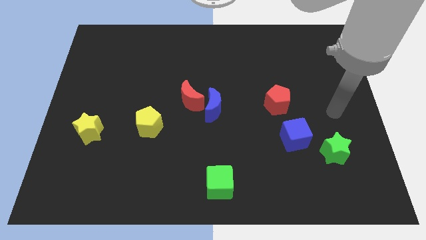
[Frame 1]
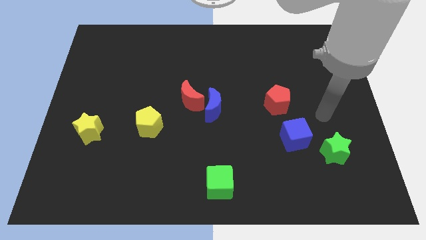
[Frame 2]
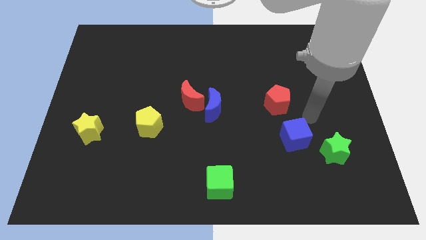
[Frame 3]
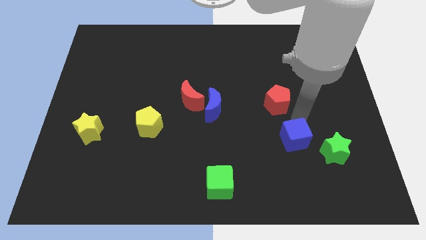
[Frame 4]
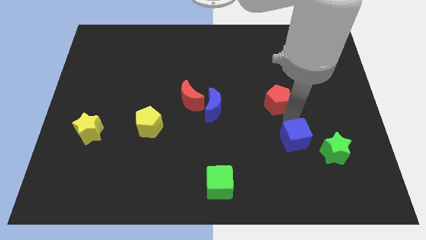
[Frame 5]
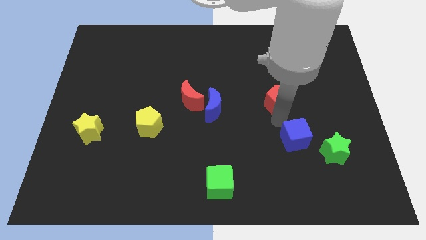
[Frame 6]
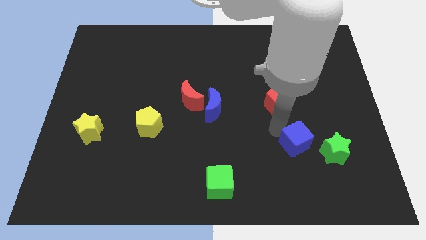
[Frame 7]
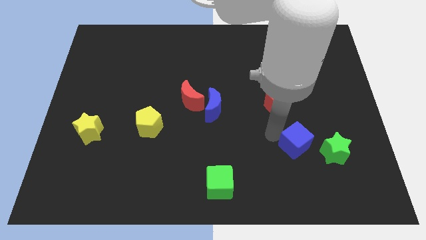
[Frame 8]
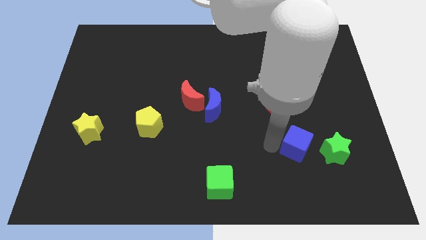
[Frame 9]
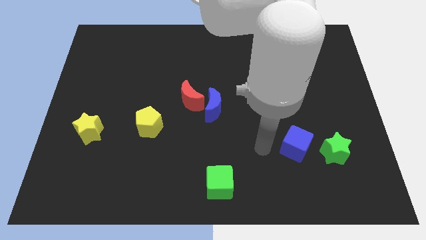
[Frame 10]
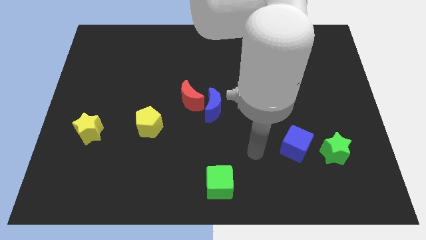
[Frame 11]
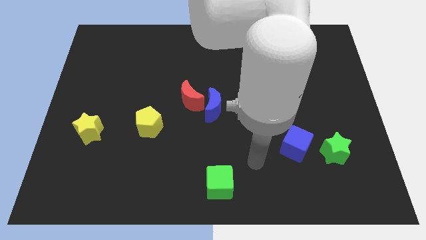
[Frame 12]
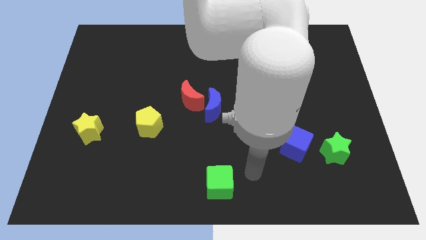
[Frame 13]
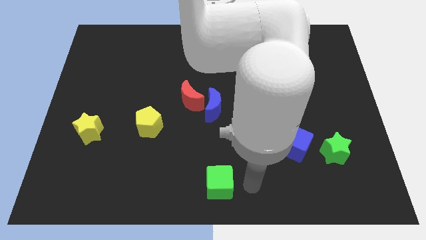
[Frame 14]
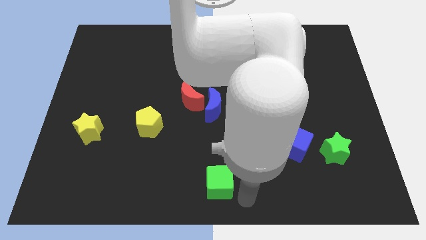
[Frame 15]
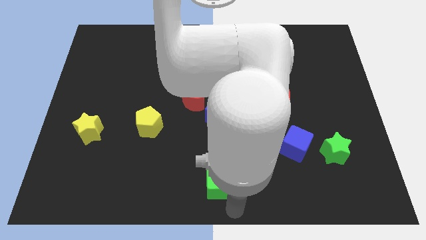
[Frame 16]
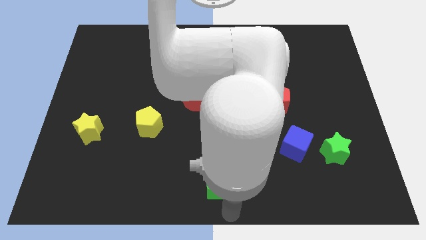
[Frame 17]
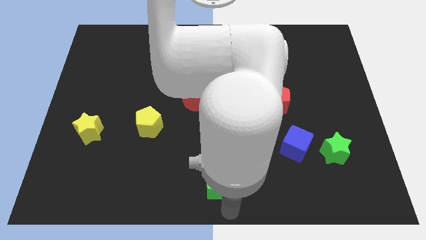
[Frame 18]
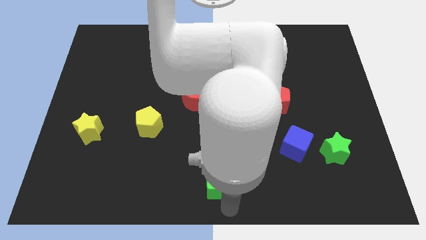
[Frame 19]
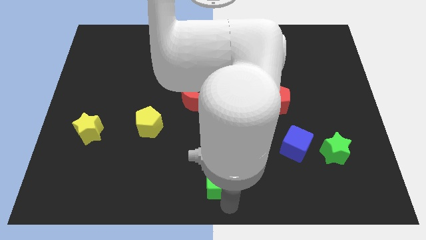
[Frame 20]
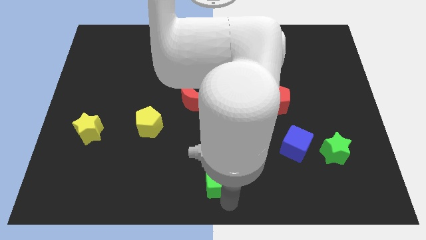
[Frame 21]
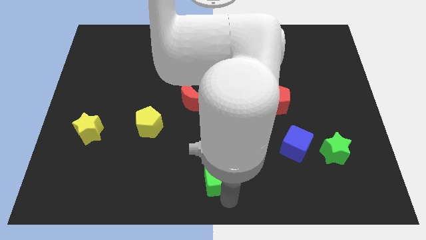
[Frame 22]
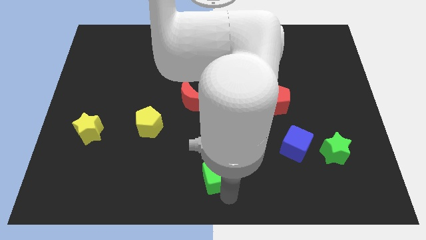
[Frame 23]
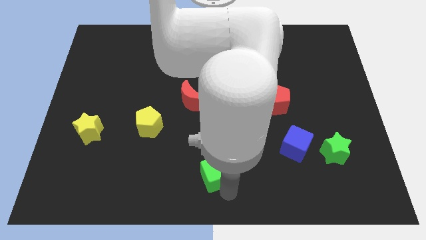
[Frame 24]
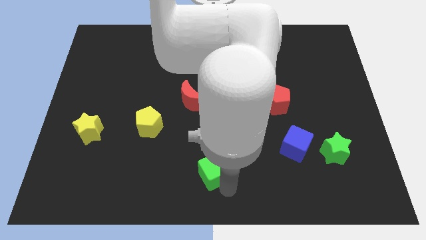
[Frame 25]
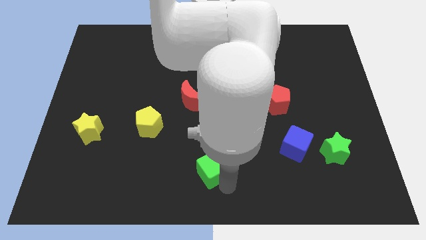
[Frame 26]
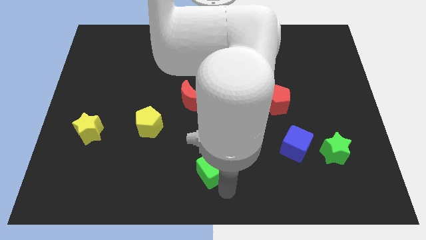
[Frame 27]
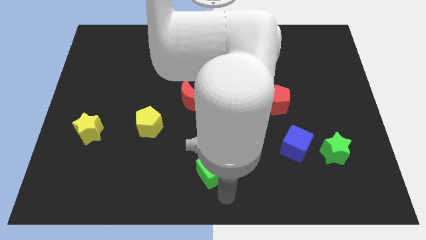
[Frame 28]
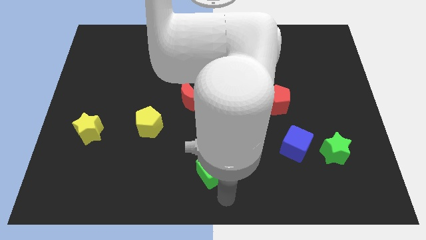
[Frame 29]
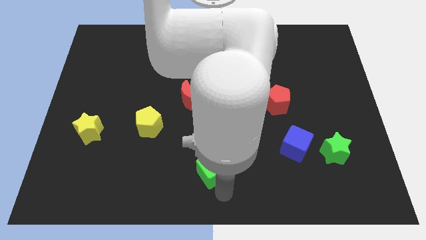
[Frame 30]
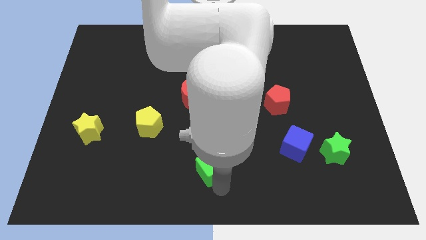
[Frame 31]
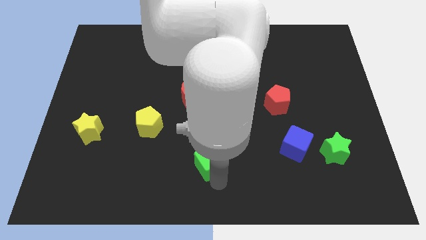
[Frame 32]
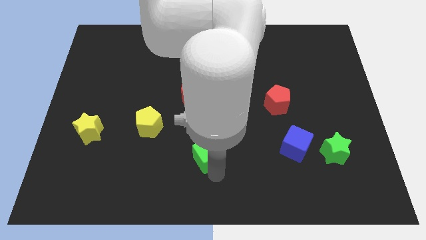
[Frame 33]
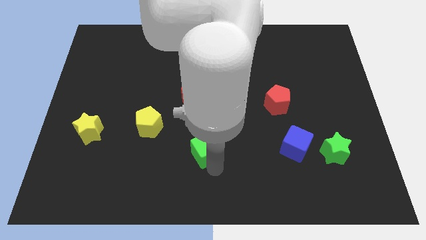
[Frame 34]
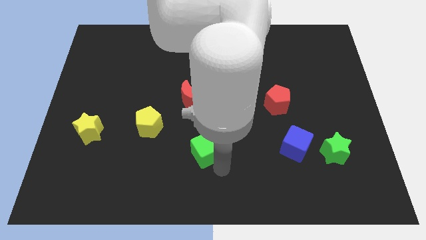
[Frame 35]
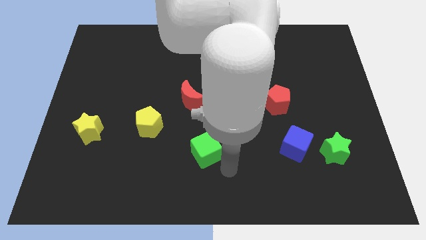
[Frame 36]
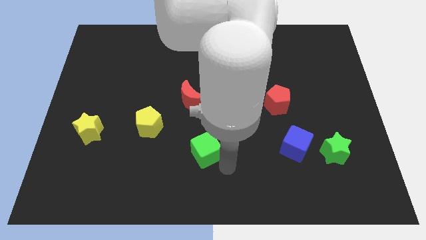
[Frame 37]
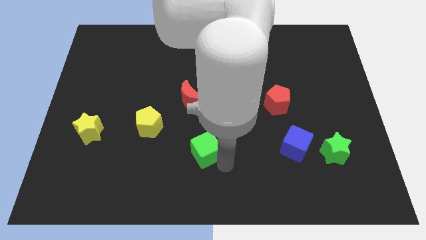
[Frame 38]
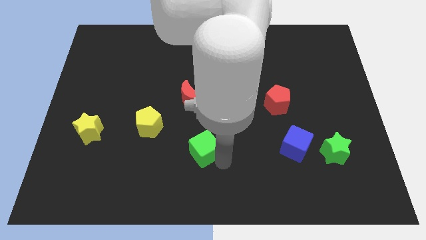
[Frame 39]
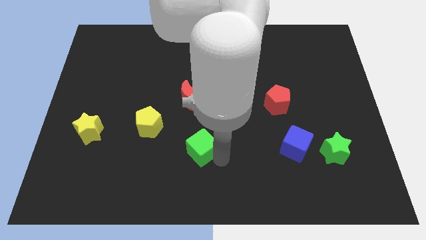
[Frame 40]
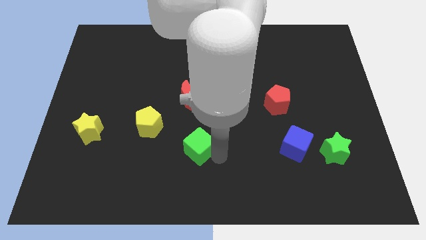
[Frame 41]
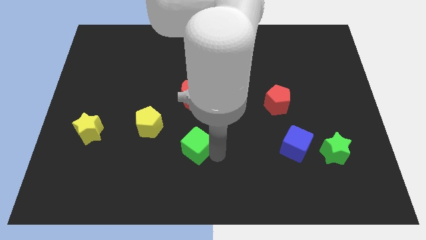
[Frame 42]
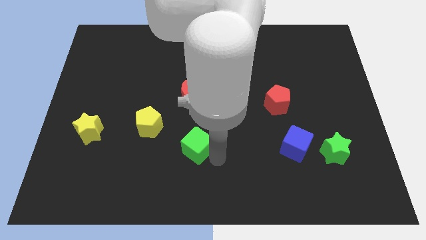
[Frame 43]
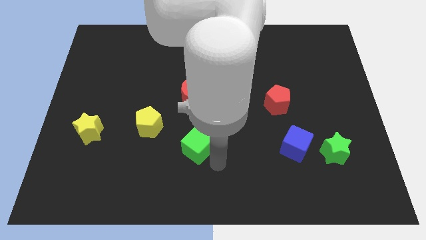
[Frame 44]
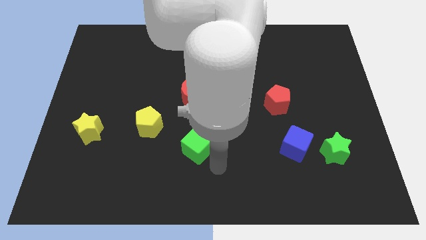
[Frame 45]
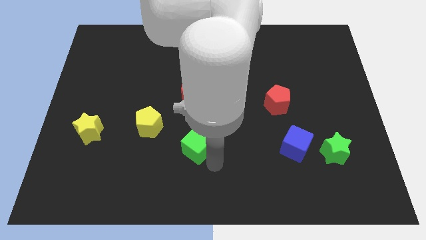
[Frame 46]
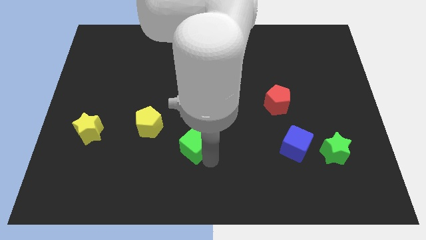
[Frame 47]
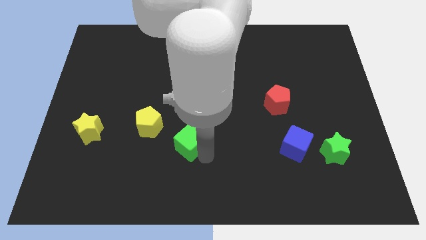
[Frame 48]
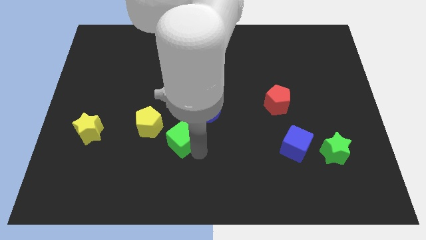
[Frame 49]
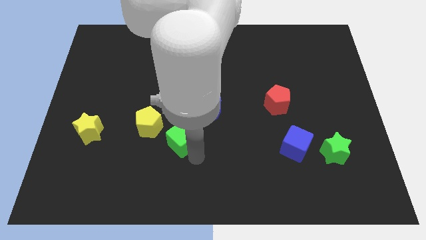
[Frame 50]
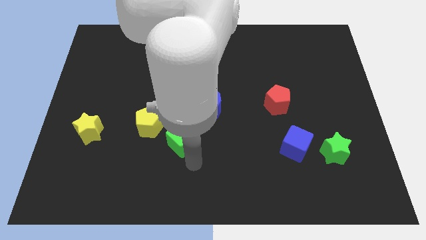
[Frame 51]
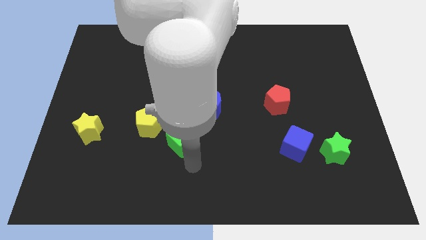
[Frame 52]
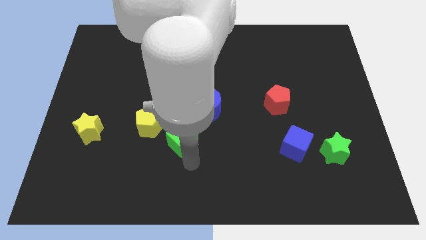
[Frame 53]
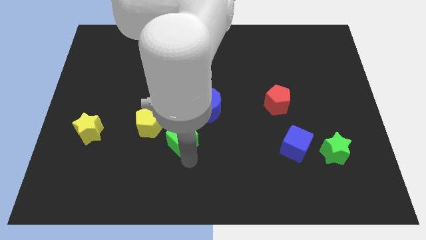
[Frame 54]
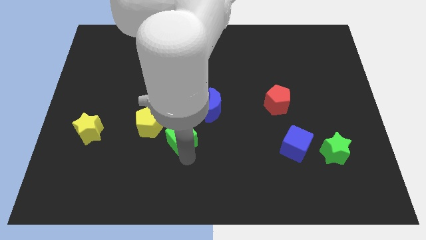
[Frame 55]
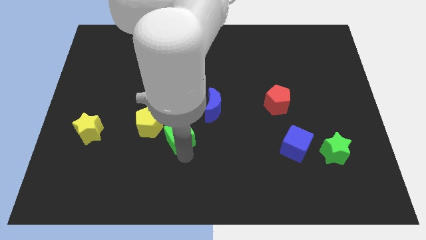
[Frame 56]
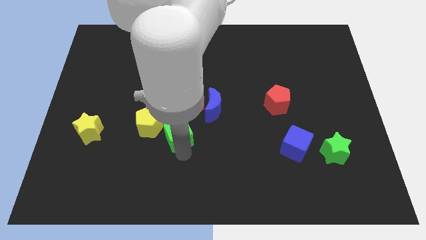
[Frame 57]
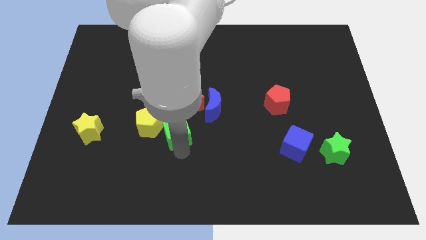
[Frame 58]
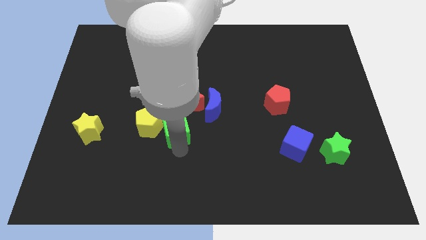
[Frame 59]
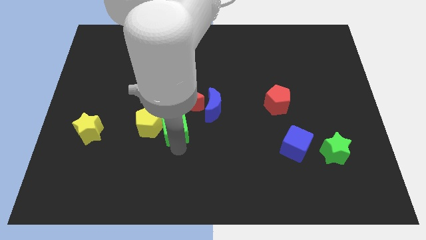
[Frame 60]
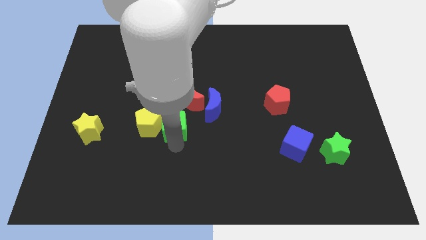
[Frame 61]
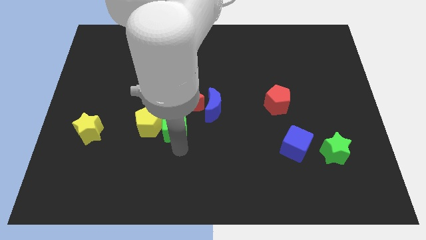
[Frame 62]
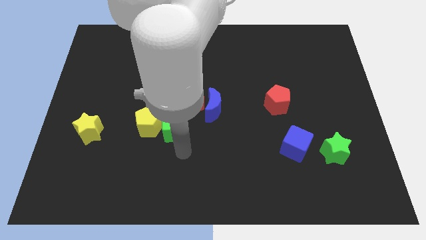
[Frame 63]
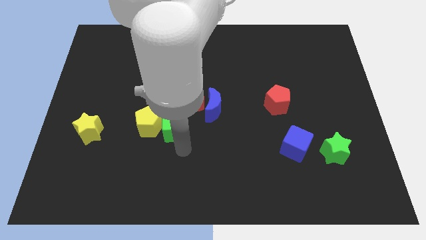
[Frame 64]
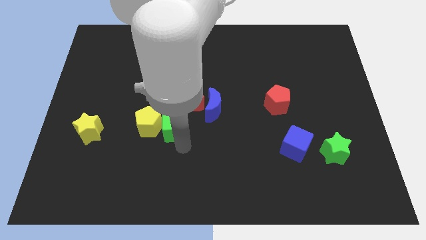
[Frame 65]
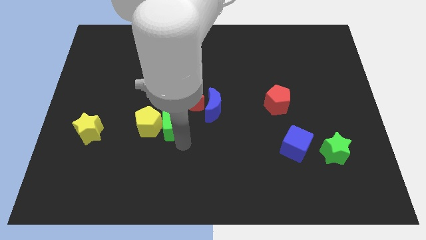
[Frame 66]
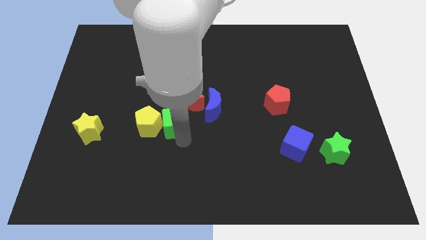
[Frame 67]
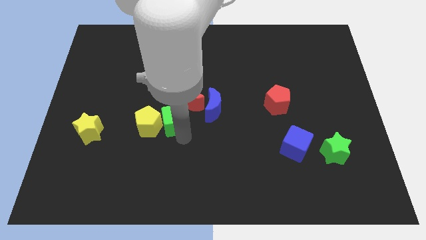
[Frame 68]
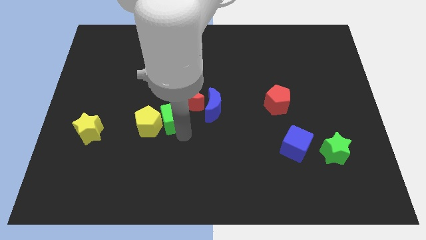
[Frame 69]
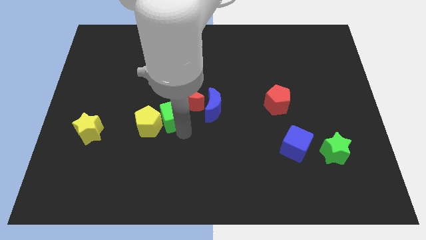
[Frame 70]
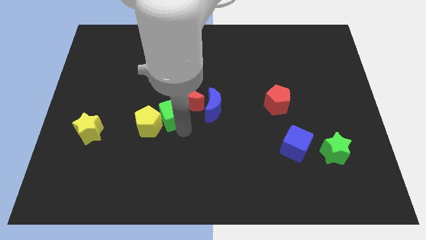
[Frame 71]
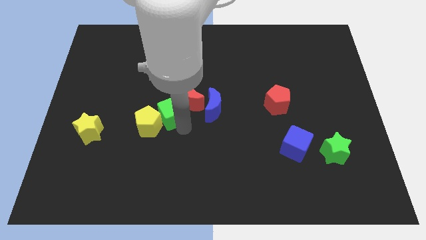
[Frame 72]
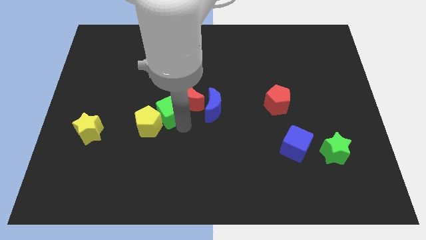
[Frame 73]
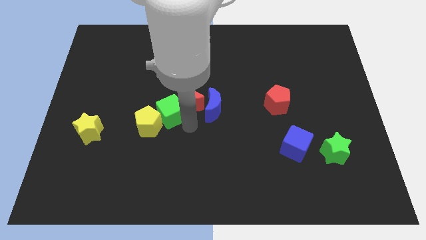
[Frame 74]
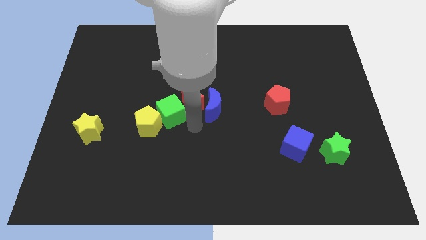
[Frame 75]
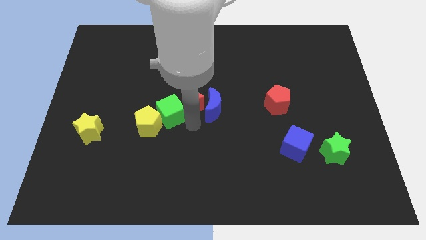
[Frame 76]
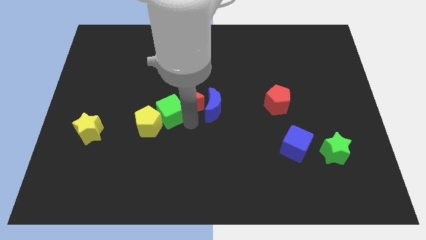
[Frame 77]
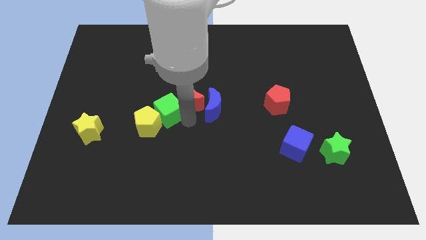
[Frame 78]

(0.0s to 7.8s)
push the green cube upwards and then to the left

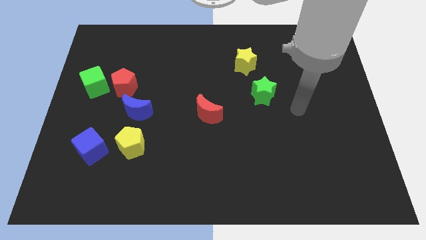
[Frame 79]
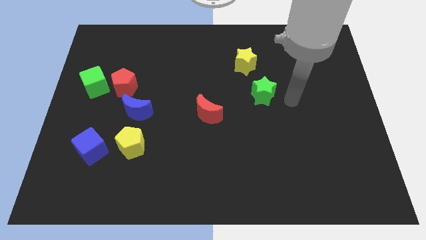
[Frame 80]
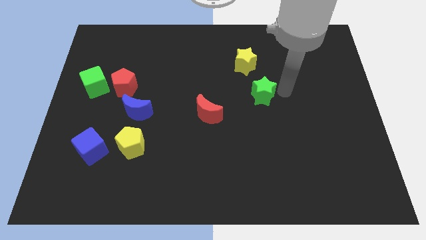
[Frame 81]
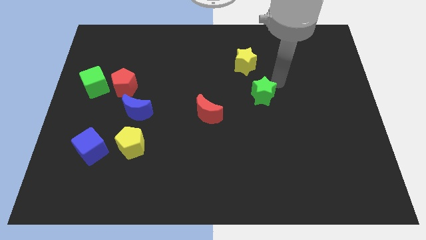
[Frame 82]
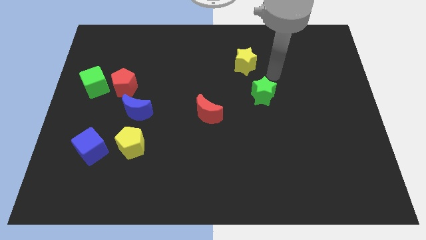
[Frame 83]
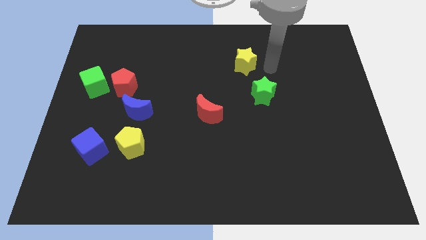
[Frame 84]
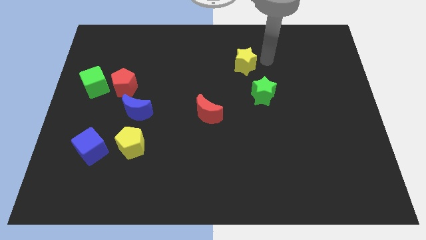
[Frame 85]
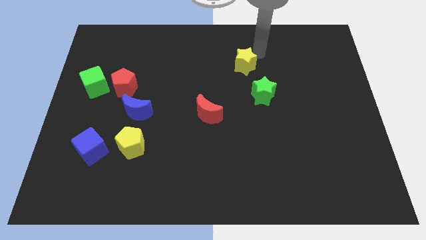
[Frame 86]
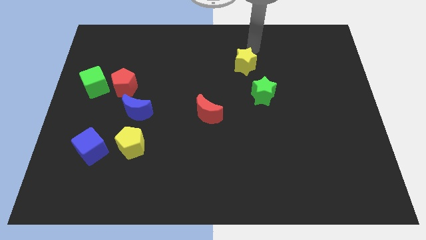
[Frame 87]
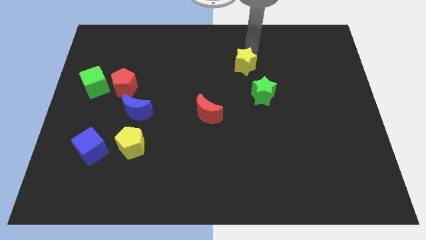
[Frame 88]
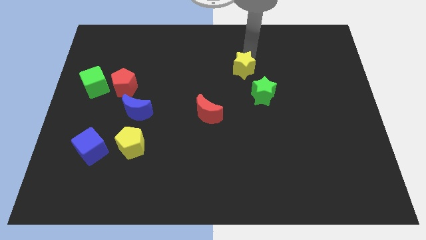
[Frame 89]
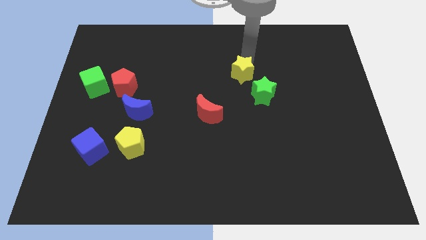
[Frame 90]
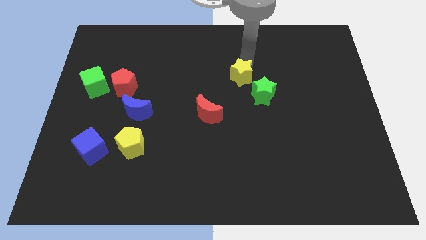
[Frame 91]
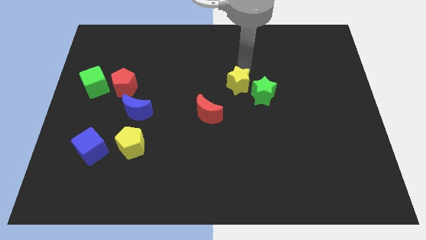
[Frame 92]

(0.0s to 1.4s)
slightly move the yellow star downwards
